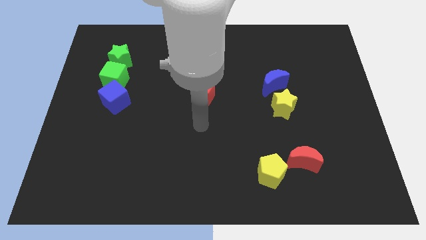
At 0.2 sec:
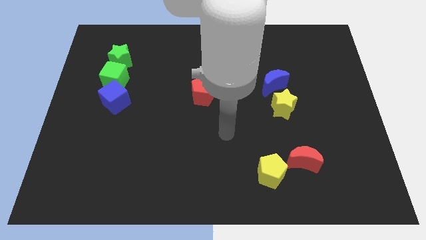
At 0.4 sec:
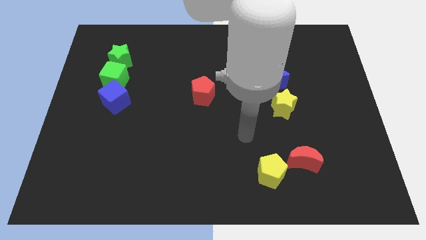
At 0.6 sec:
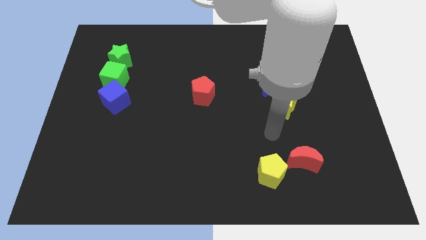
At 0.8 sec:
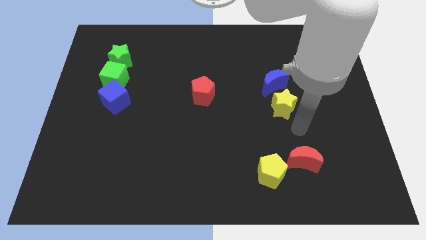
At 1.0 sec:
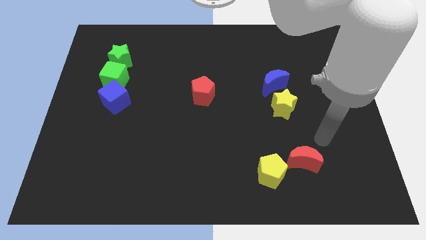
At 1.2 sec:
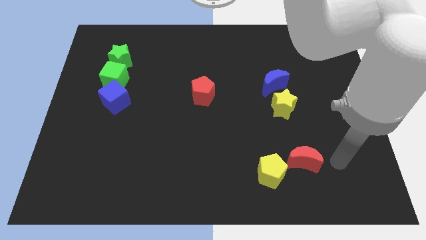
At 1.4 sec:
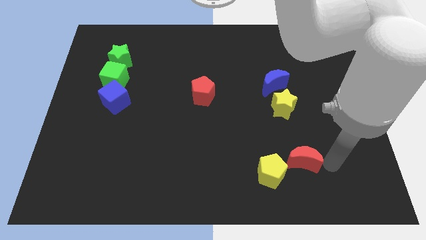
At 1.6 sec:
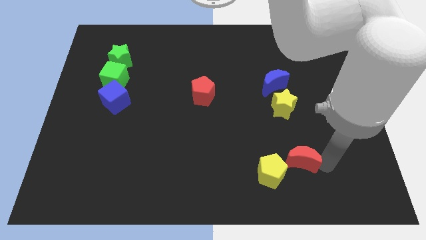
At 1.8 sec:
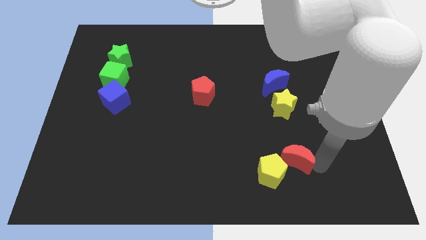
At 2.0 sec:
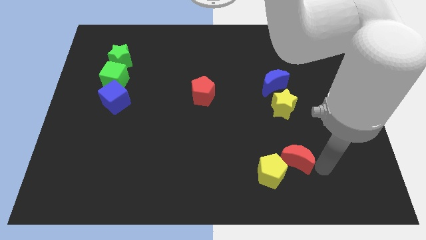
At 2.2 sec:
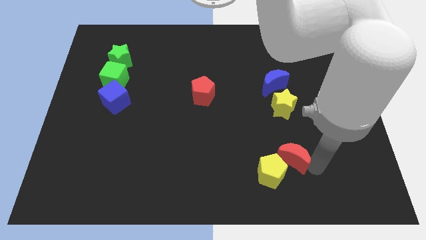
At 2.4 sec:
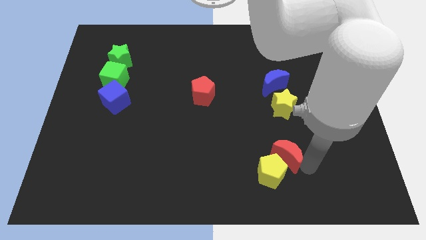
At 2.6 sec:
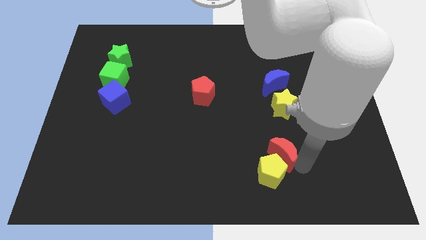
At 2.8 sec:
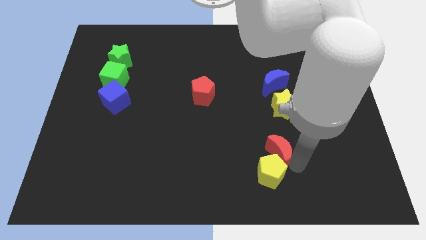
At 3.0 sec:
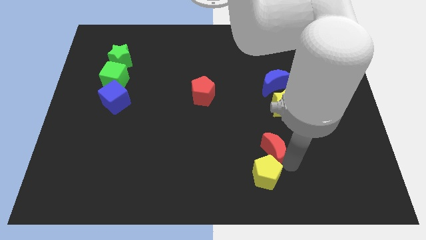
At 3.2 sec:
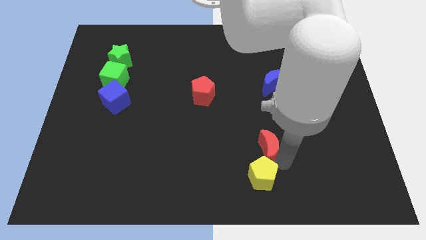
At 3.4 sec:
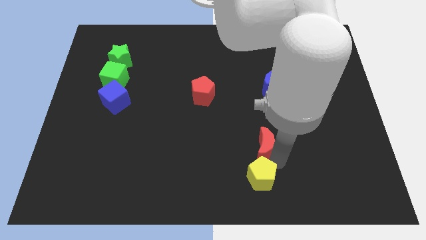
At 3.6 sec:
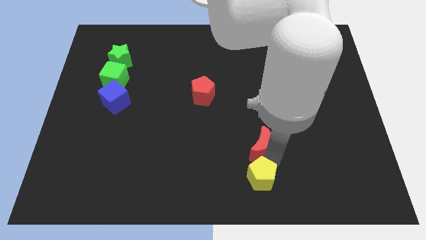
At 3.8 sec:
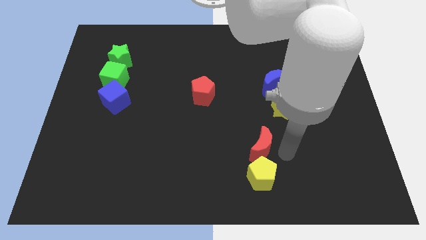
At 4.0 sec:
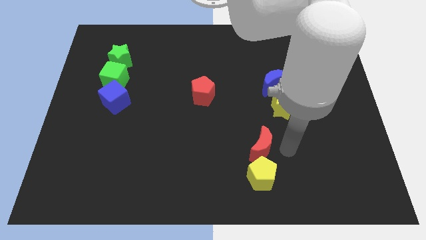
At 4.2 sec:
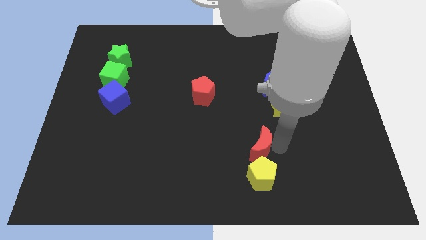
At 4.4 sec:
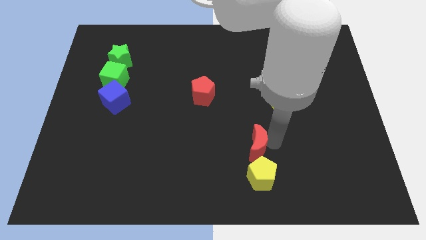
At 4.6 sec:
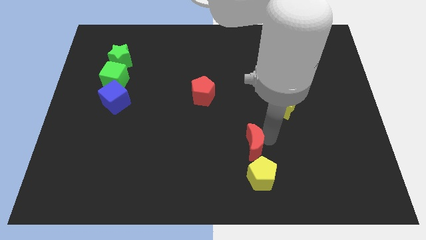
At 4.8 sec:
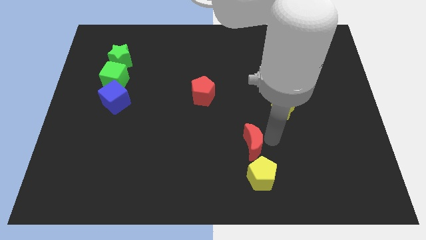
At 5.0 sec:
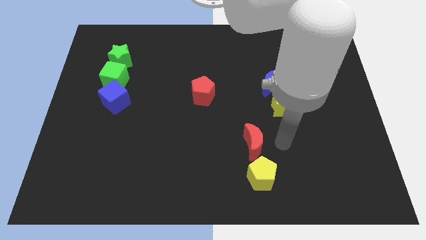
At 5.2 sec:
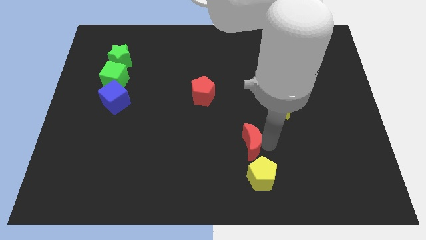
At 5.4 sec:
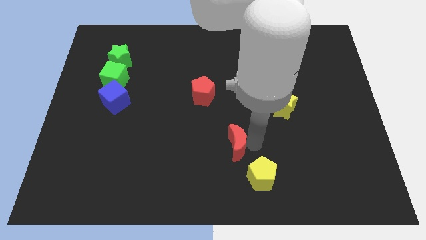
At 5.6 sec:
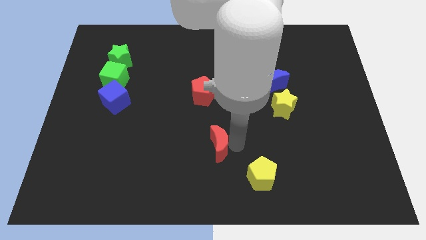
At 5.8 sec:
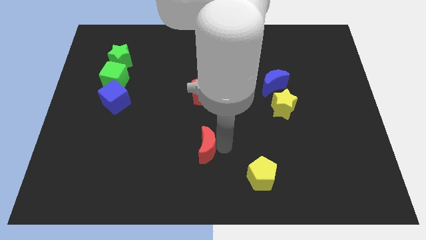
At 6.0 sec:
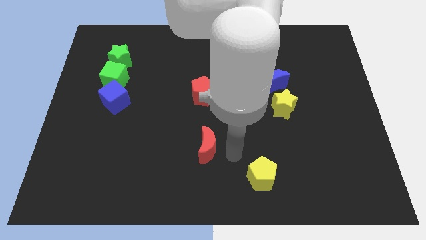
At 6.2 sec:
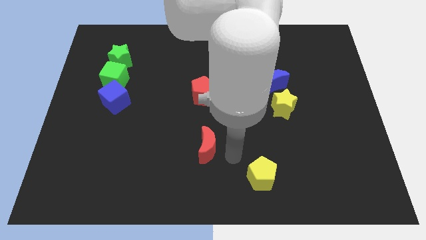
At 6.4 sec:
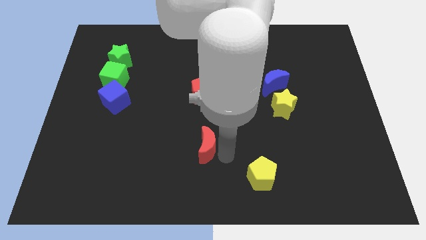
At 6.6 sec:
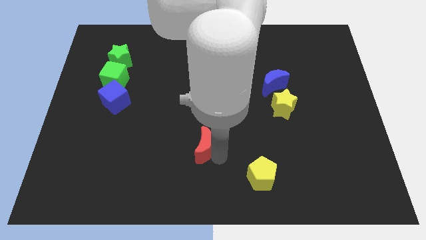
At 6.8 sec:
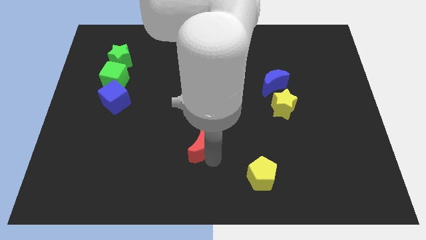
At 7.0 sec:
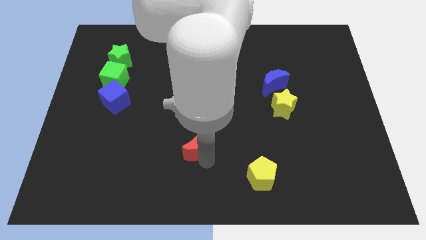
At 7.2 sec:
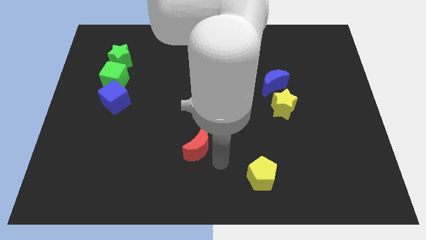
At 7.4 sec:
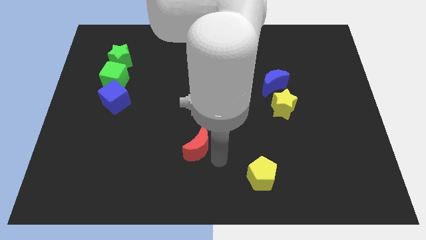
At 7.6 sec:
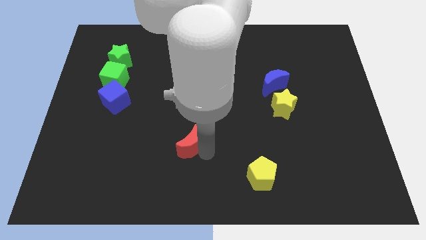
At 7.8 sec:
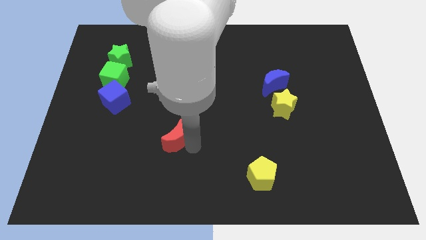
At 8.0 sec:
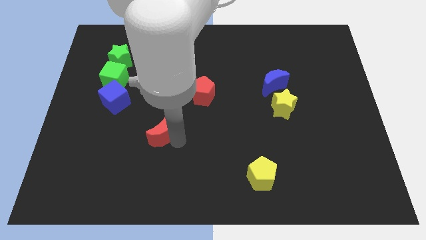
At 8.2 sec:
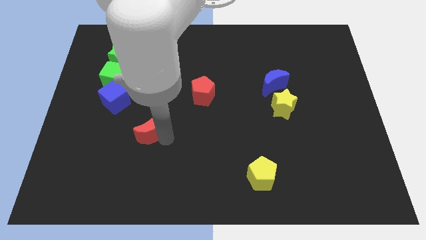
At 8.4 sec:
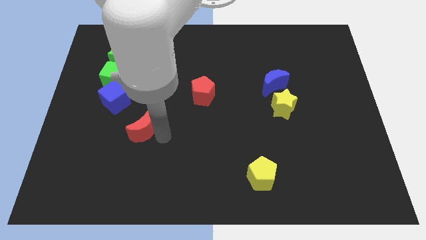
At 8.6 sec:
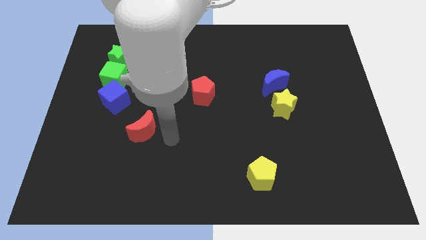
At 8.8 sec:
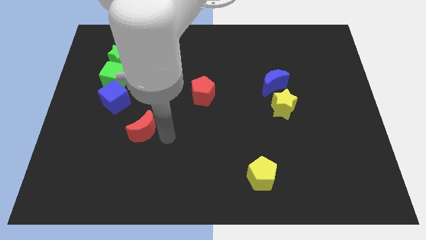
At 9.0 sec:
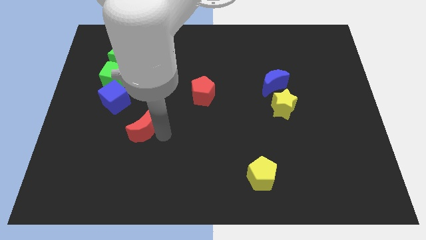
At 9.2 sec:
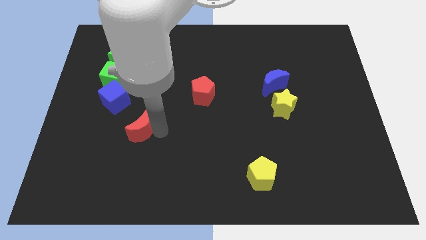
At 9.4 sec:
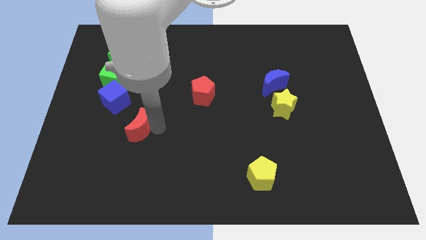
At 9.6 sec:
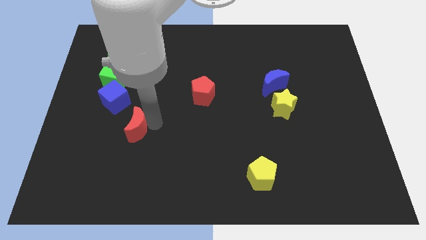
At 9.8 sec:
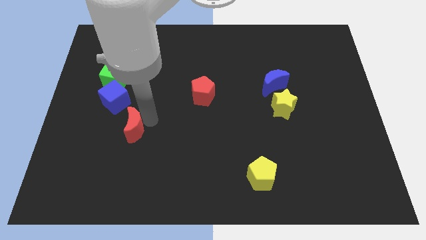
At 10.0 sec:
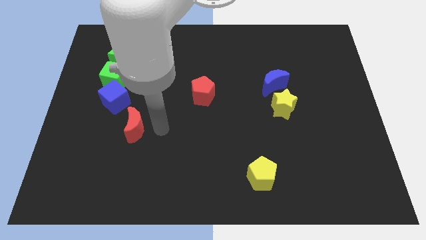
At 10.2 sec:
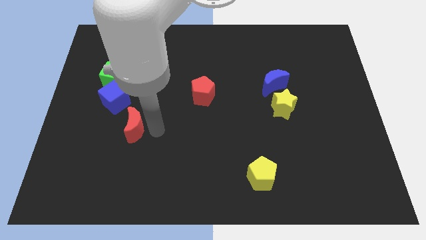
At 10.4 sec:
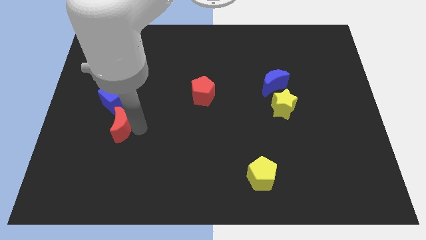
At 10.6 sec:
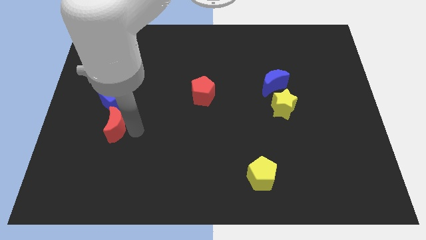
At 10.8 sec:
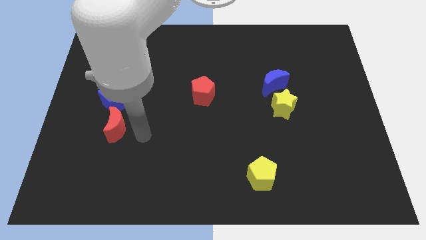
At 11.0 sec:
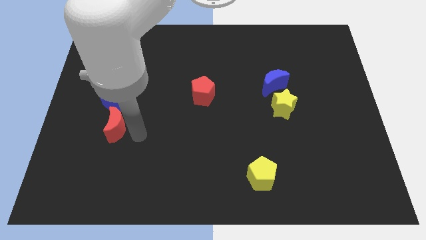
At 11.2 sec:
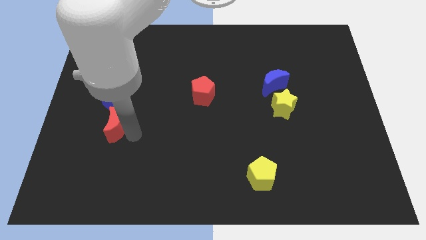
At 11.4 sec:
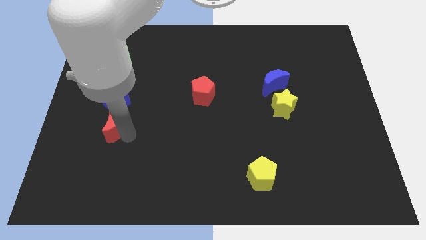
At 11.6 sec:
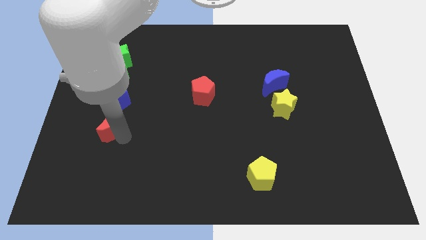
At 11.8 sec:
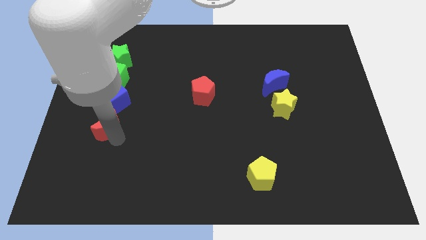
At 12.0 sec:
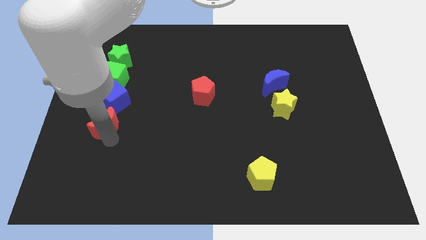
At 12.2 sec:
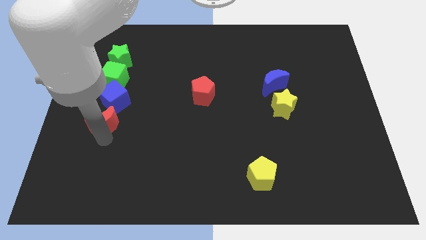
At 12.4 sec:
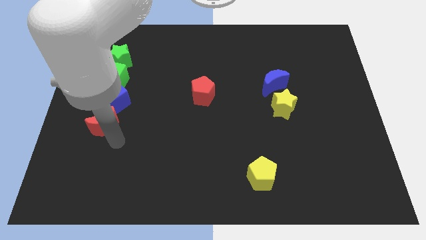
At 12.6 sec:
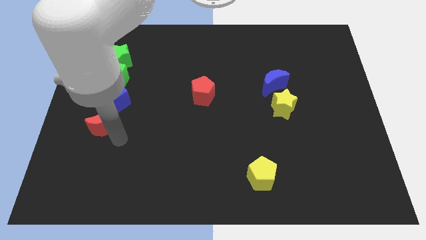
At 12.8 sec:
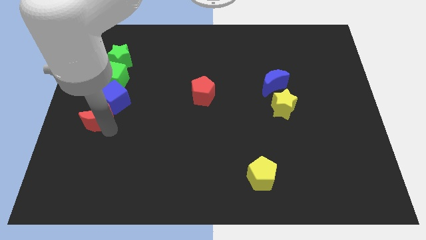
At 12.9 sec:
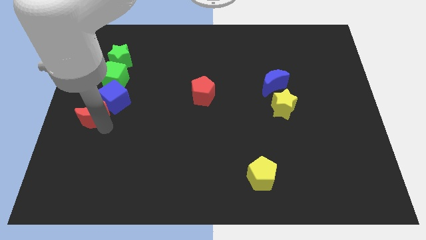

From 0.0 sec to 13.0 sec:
move the red moon to the left side of the board
